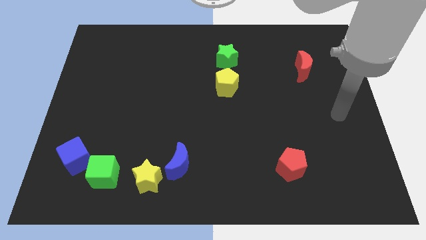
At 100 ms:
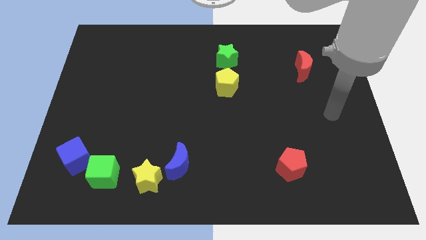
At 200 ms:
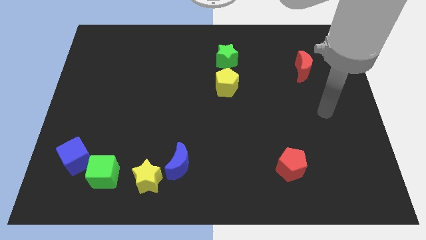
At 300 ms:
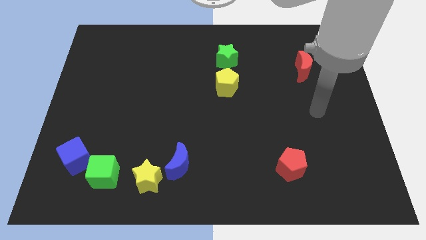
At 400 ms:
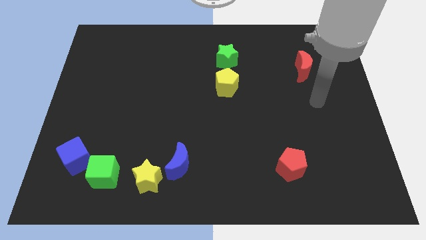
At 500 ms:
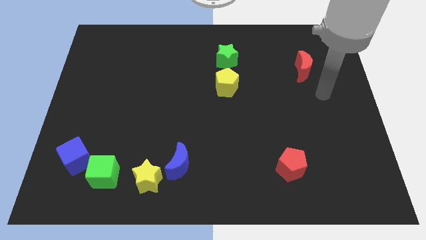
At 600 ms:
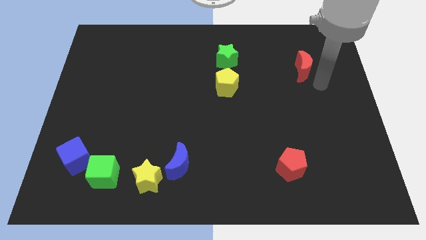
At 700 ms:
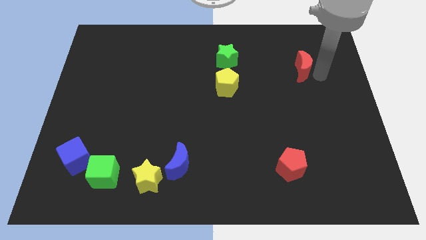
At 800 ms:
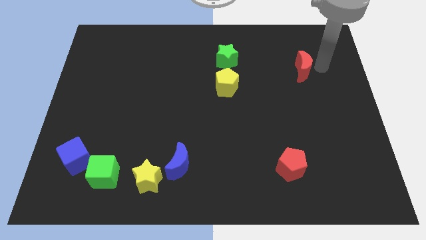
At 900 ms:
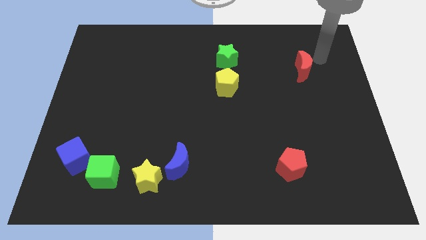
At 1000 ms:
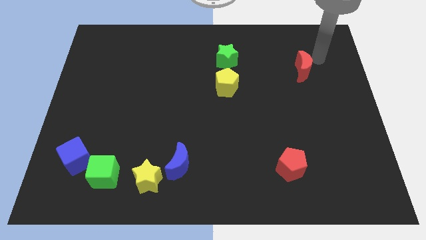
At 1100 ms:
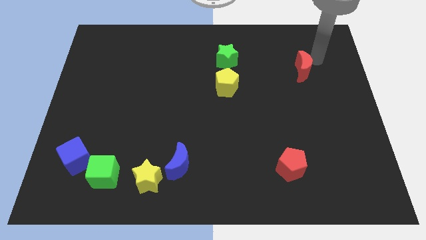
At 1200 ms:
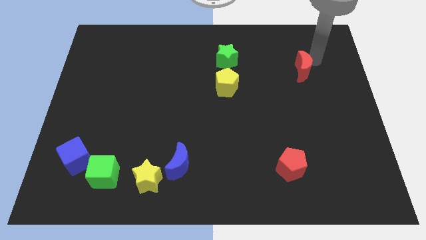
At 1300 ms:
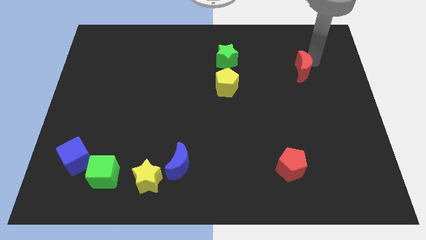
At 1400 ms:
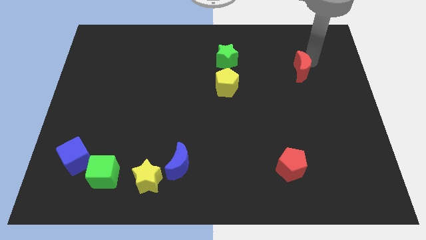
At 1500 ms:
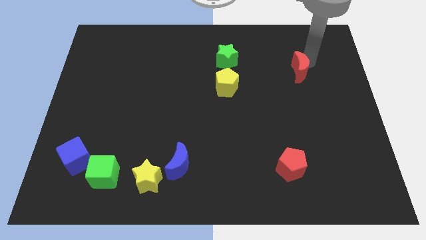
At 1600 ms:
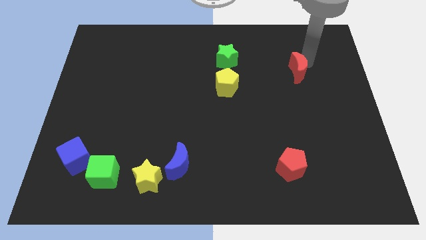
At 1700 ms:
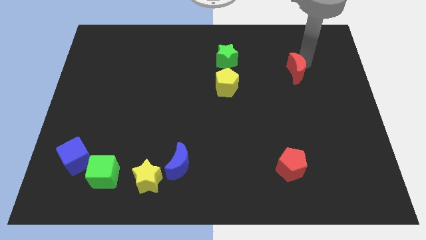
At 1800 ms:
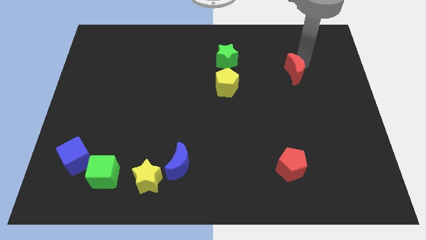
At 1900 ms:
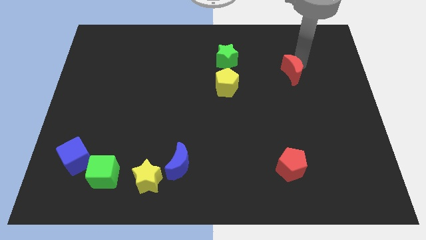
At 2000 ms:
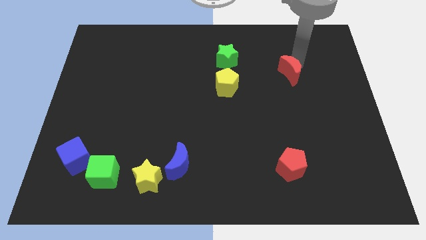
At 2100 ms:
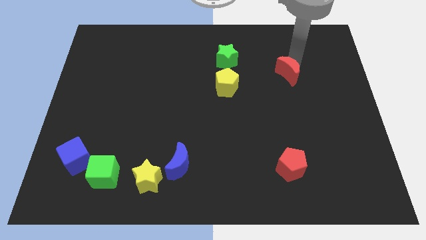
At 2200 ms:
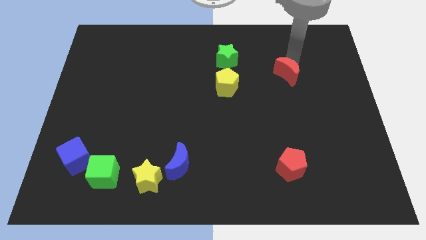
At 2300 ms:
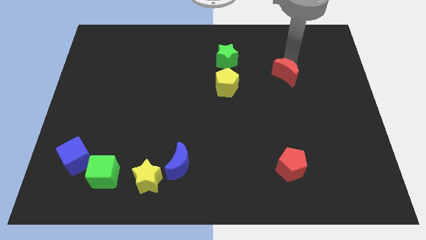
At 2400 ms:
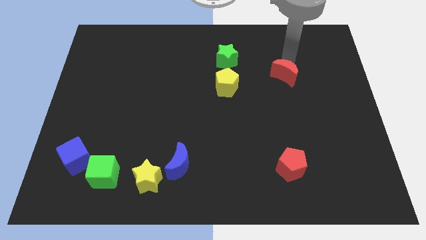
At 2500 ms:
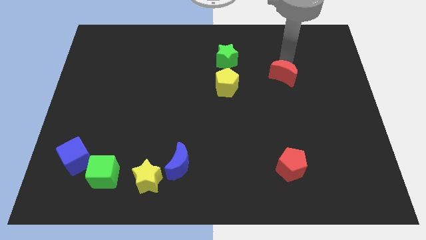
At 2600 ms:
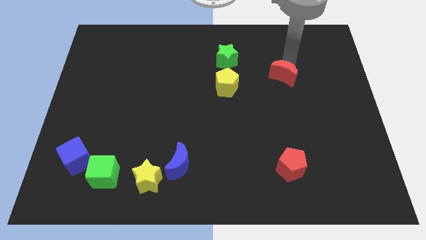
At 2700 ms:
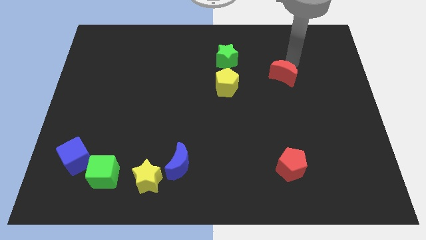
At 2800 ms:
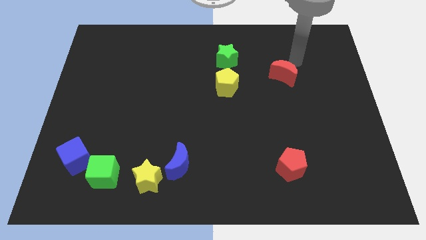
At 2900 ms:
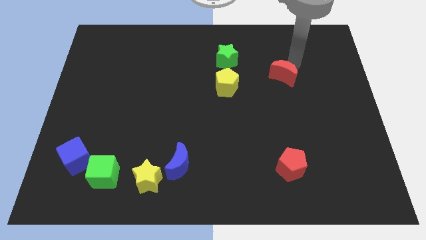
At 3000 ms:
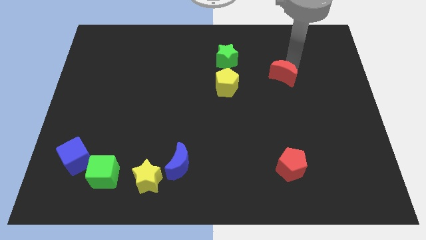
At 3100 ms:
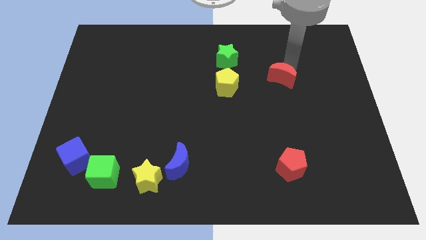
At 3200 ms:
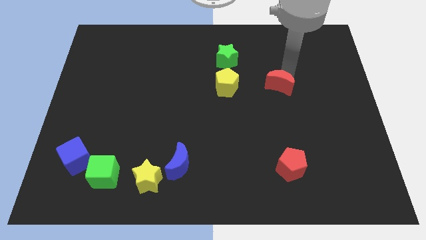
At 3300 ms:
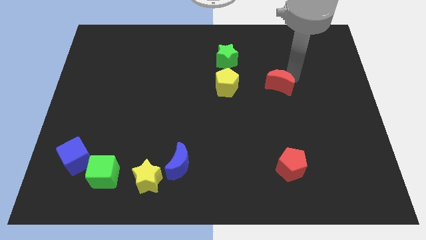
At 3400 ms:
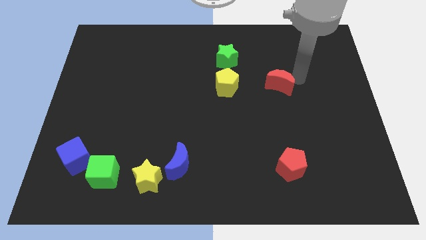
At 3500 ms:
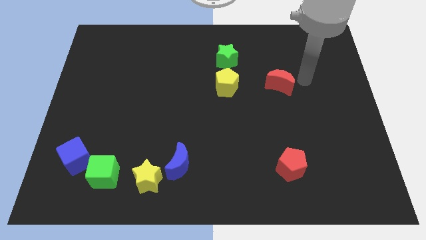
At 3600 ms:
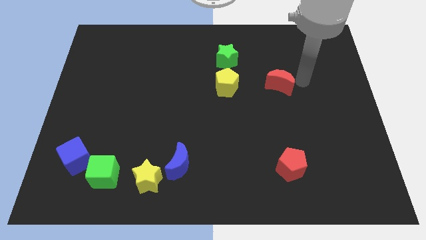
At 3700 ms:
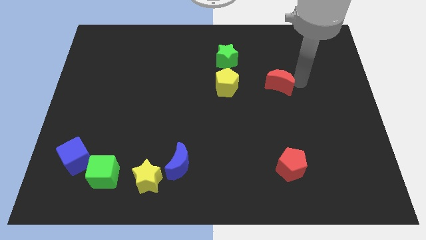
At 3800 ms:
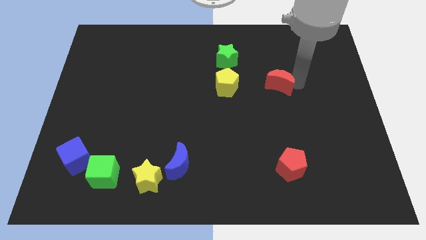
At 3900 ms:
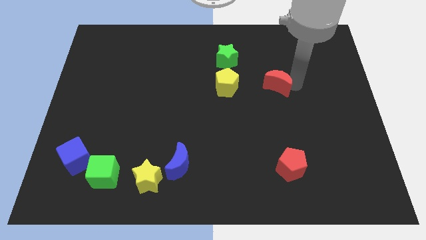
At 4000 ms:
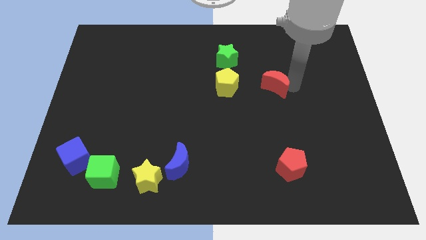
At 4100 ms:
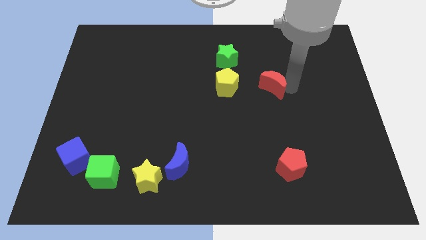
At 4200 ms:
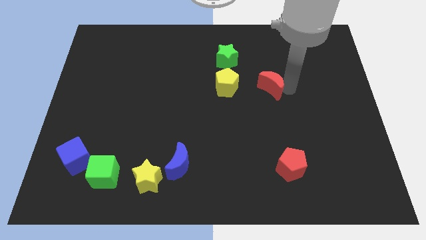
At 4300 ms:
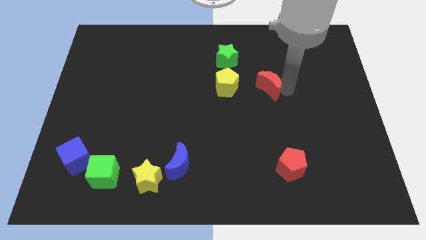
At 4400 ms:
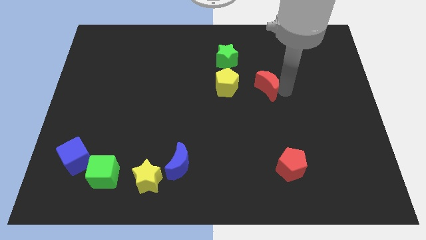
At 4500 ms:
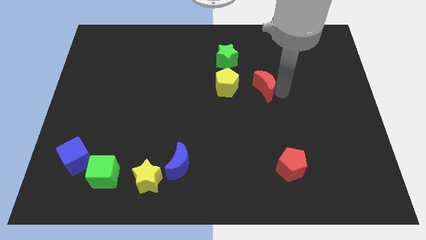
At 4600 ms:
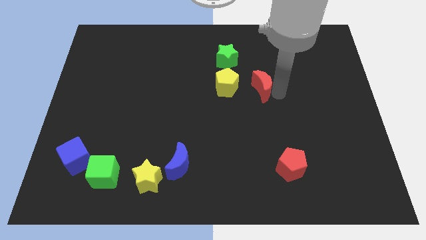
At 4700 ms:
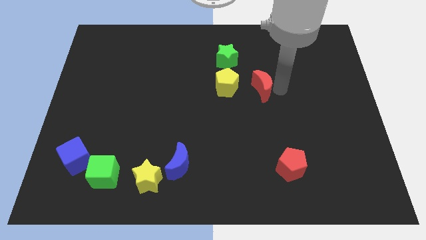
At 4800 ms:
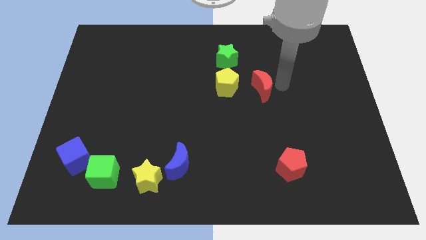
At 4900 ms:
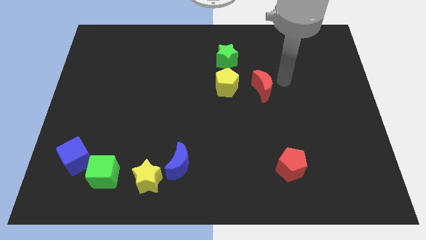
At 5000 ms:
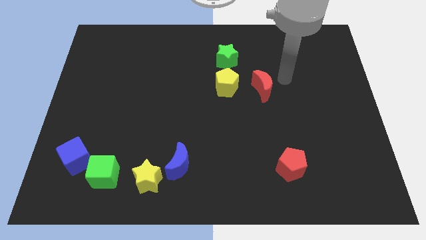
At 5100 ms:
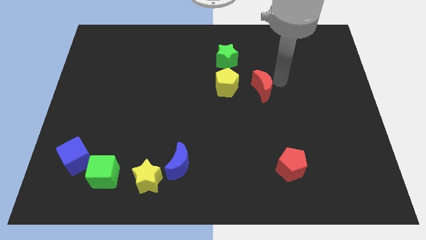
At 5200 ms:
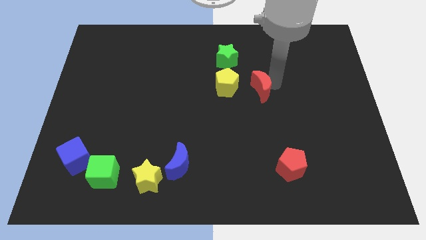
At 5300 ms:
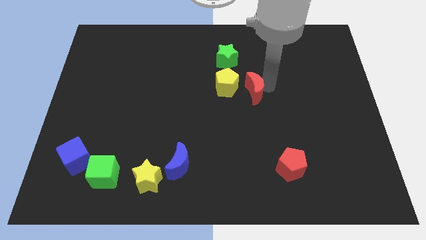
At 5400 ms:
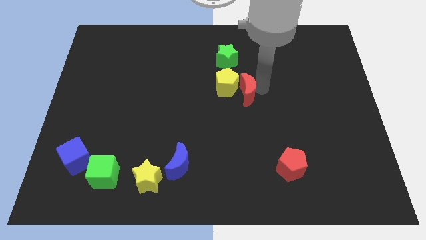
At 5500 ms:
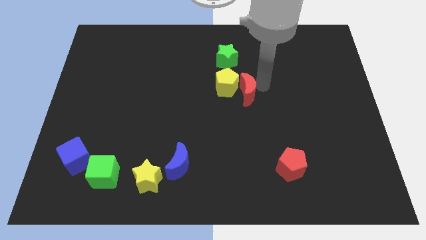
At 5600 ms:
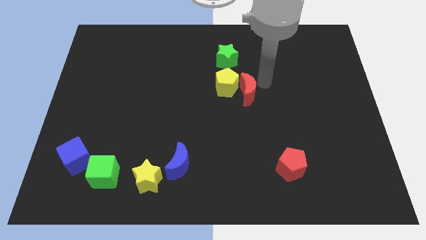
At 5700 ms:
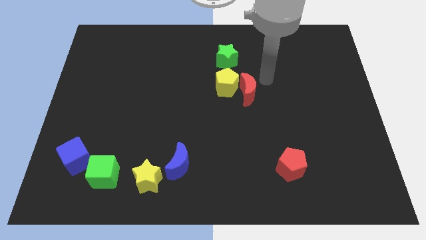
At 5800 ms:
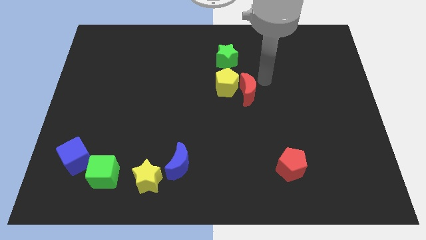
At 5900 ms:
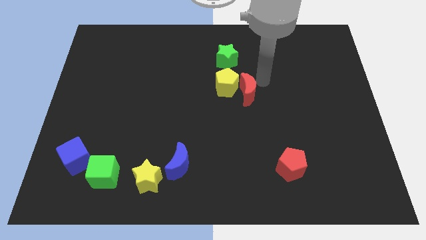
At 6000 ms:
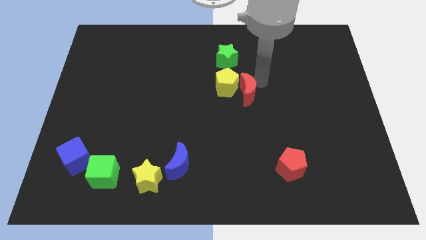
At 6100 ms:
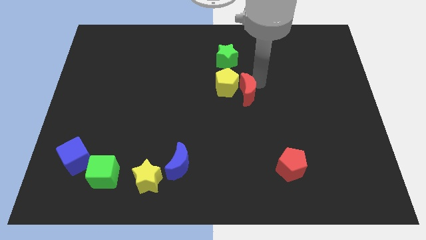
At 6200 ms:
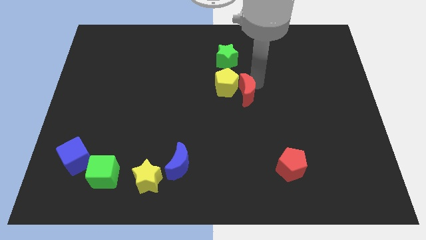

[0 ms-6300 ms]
put the red moon below the green star
